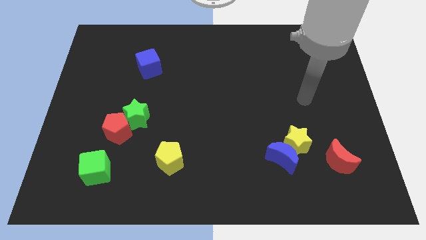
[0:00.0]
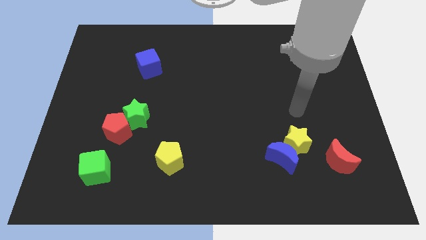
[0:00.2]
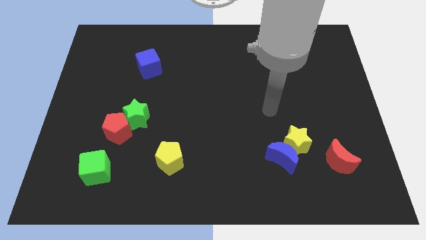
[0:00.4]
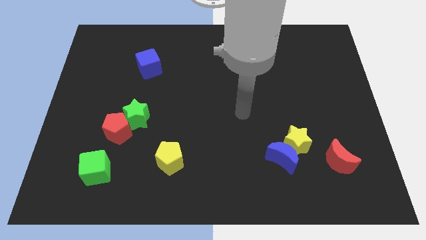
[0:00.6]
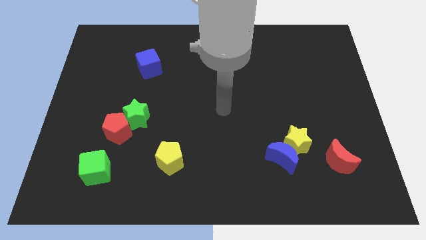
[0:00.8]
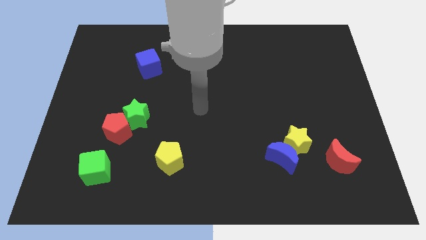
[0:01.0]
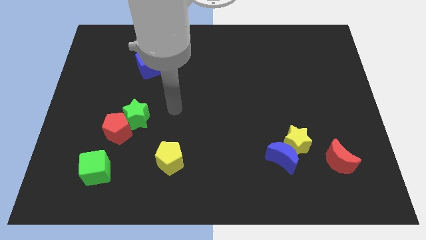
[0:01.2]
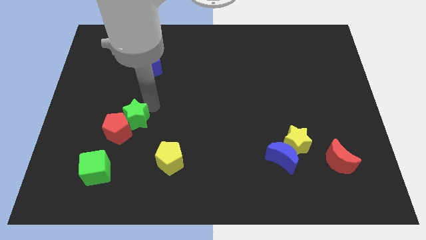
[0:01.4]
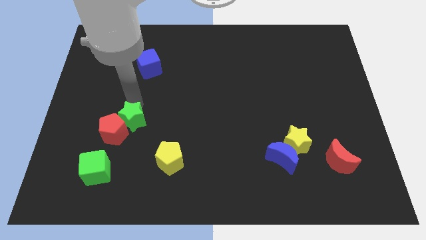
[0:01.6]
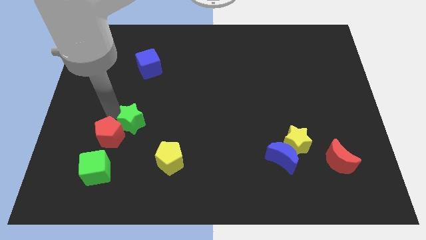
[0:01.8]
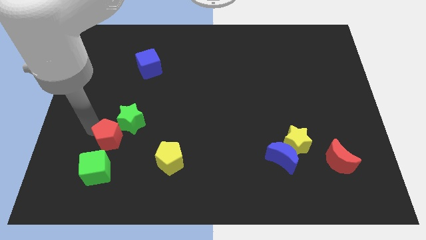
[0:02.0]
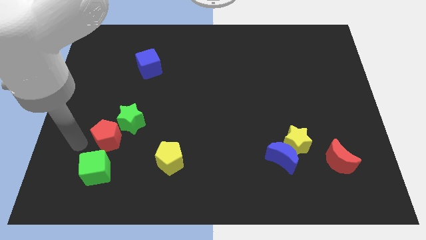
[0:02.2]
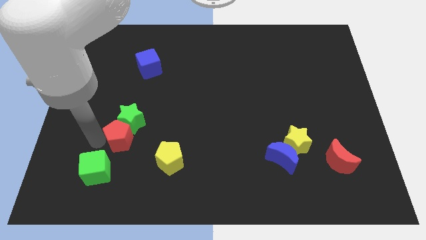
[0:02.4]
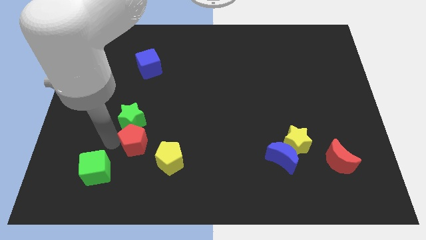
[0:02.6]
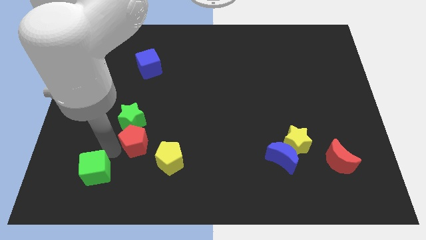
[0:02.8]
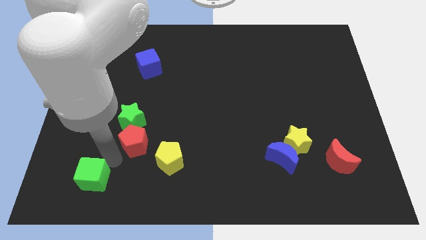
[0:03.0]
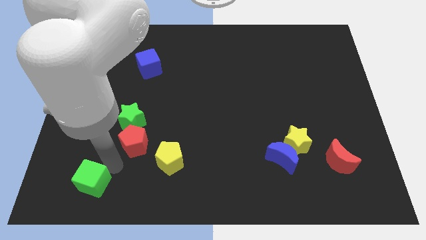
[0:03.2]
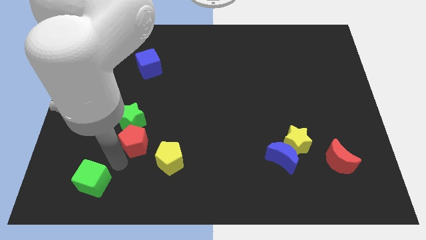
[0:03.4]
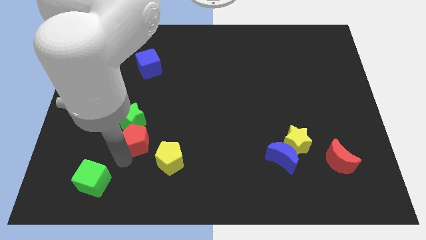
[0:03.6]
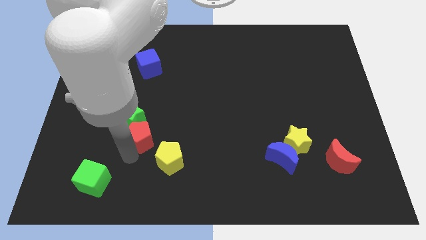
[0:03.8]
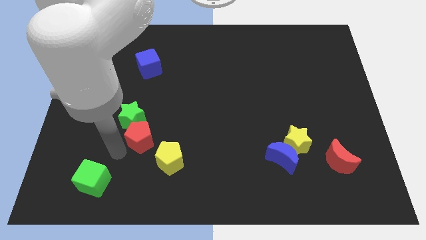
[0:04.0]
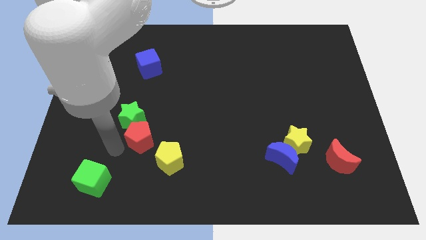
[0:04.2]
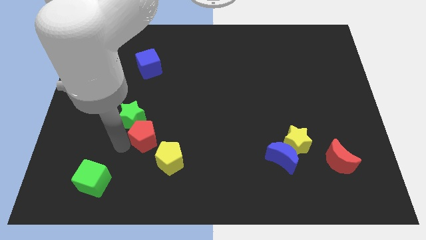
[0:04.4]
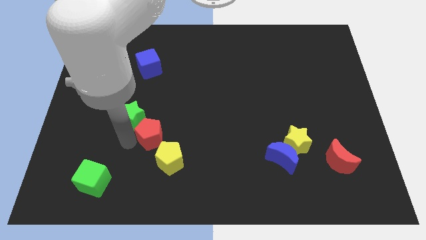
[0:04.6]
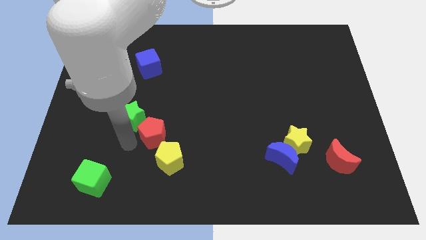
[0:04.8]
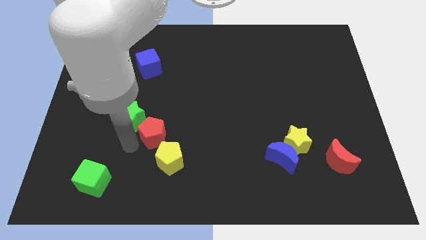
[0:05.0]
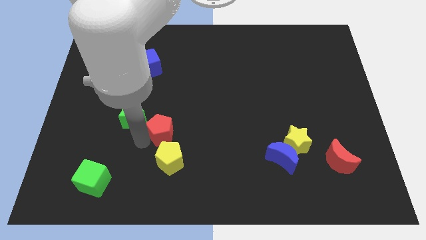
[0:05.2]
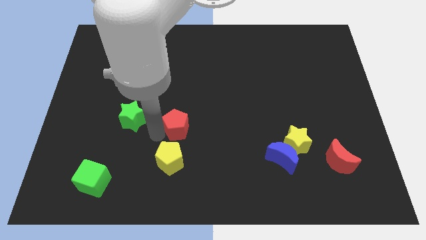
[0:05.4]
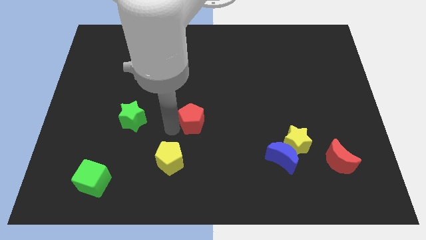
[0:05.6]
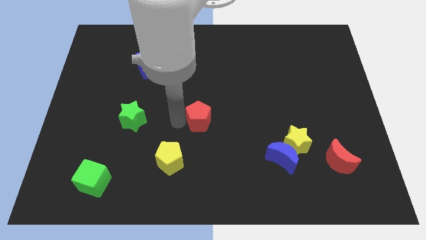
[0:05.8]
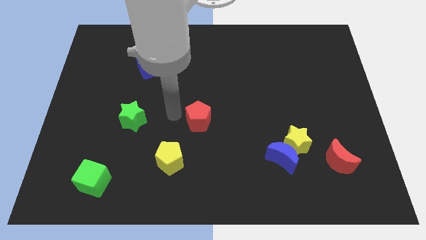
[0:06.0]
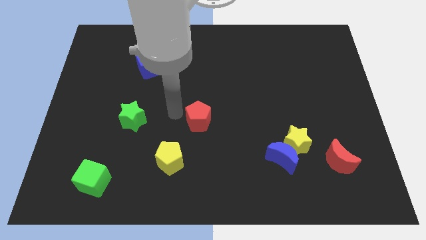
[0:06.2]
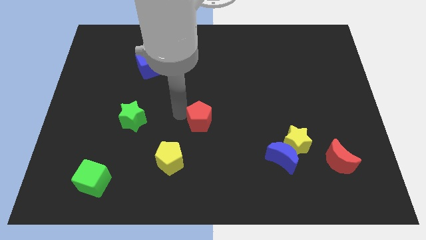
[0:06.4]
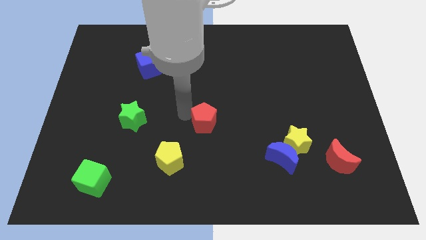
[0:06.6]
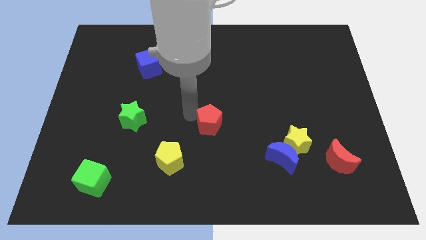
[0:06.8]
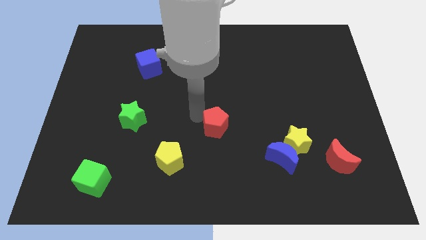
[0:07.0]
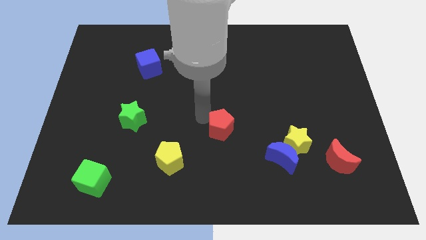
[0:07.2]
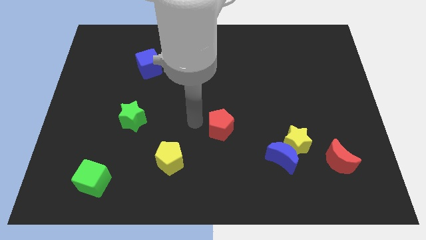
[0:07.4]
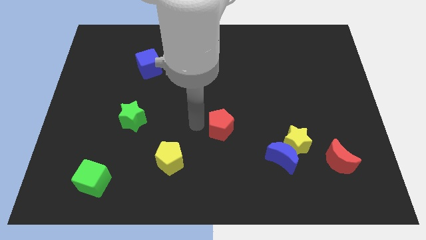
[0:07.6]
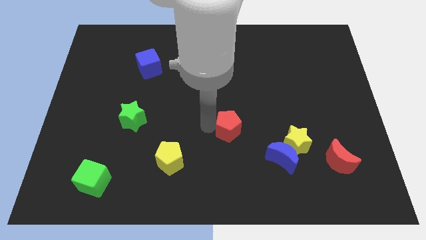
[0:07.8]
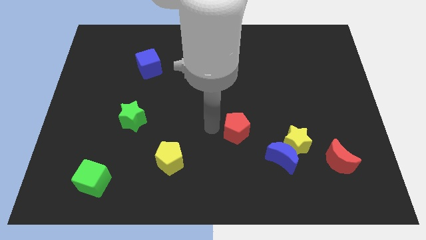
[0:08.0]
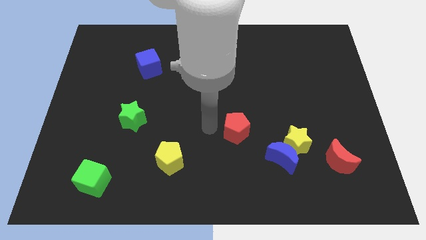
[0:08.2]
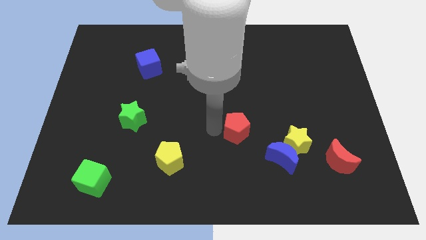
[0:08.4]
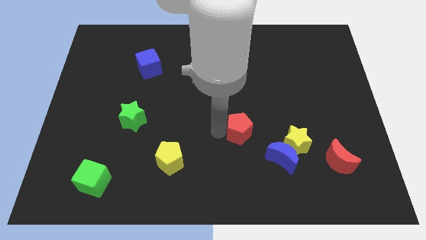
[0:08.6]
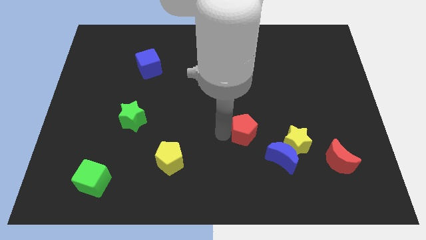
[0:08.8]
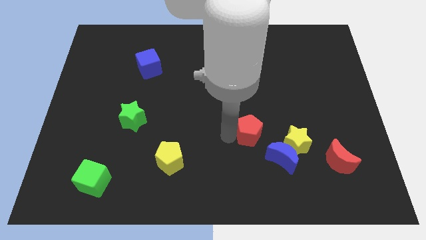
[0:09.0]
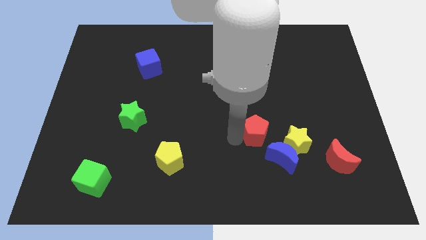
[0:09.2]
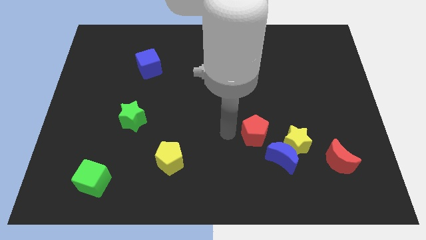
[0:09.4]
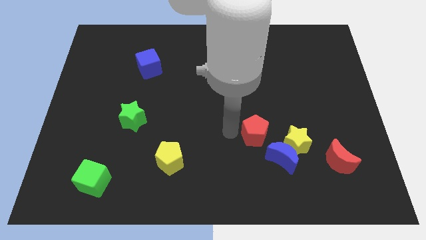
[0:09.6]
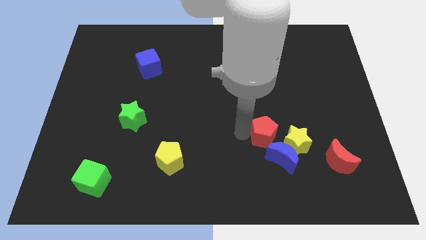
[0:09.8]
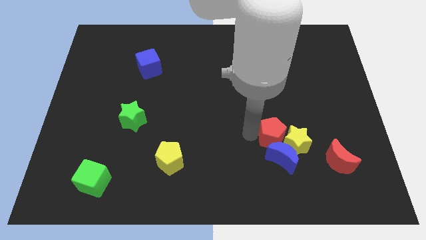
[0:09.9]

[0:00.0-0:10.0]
push the red pentagon towards the yellow star

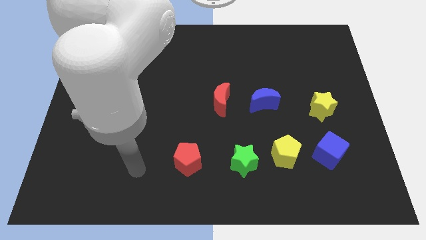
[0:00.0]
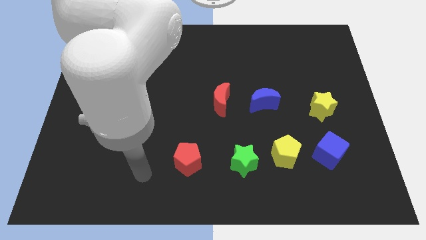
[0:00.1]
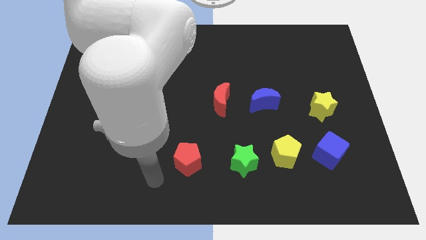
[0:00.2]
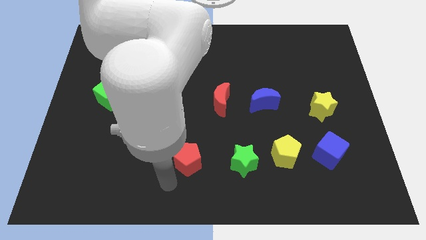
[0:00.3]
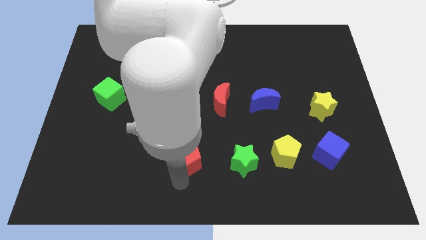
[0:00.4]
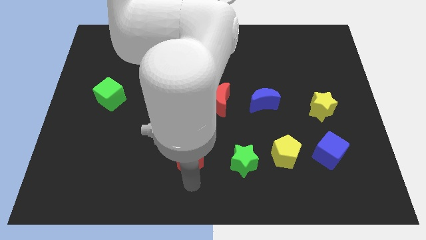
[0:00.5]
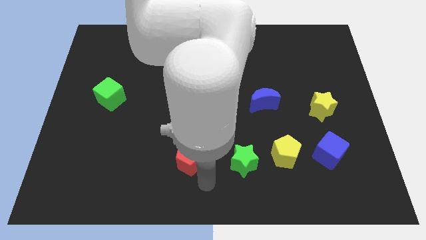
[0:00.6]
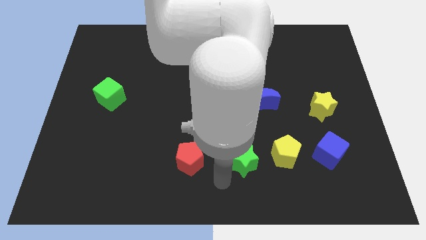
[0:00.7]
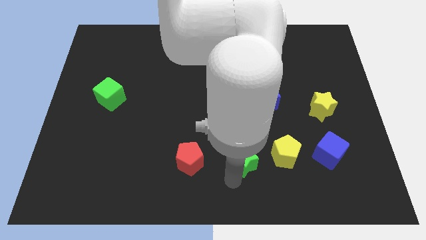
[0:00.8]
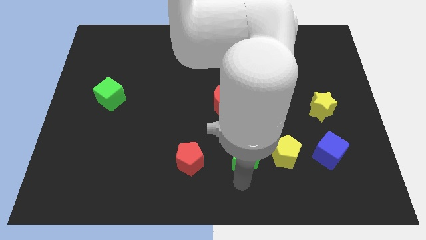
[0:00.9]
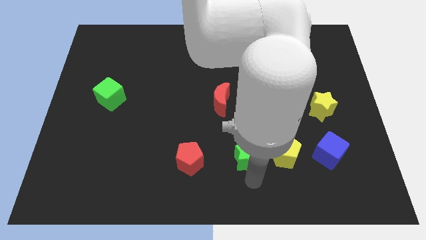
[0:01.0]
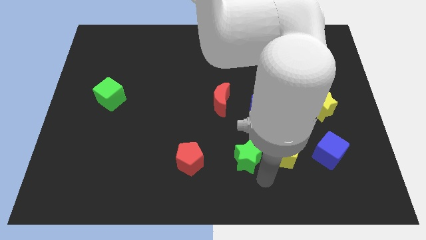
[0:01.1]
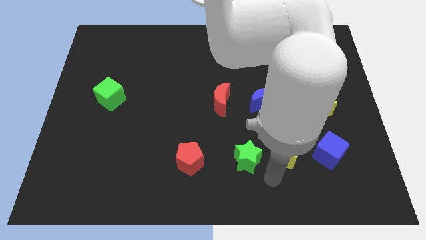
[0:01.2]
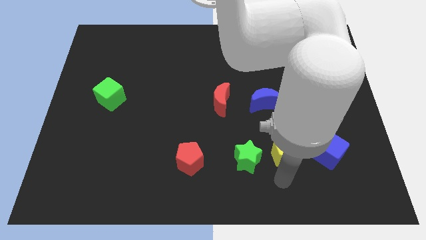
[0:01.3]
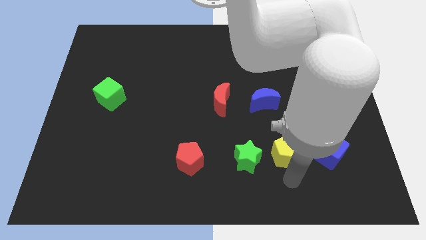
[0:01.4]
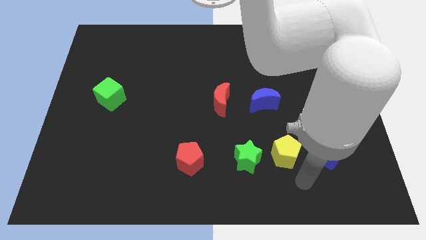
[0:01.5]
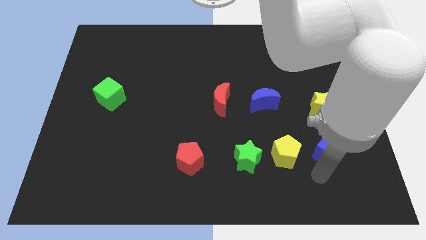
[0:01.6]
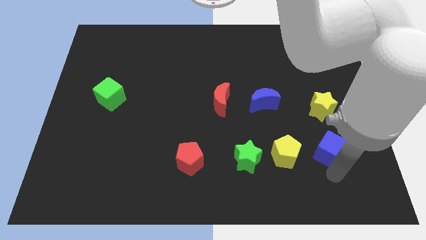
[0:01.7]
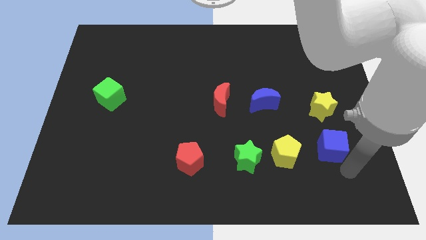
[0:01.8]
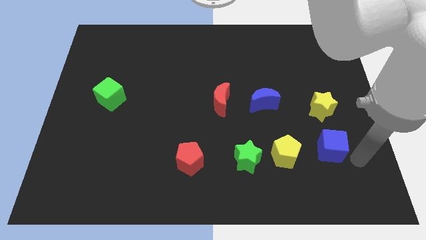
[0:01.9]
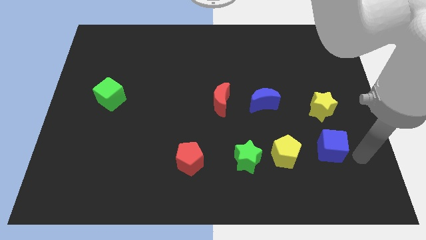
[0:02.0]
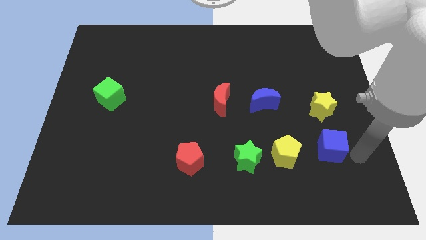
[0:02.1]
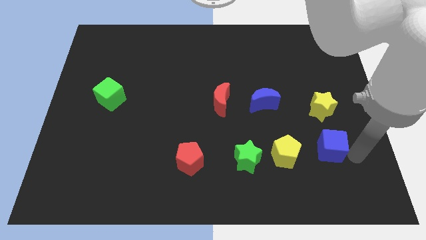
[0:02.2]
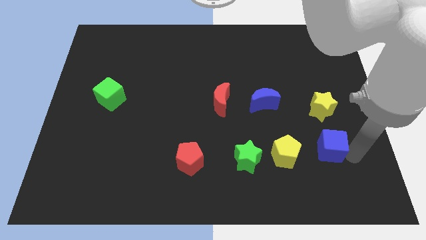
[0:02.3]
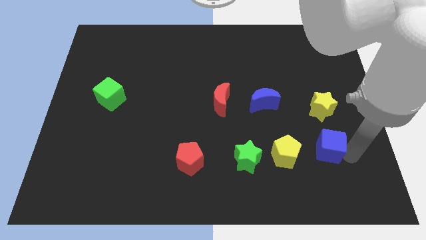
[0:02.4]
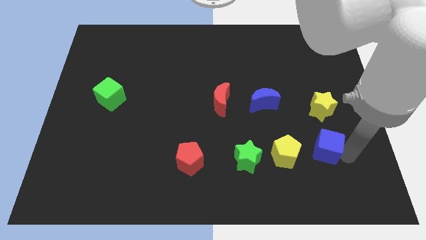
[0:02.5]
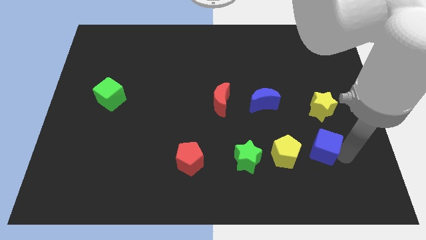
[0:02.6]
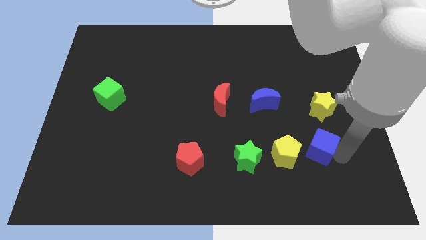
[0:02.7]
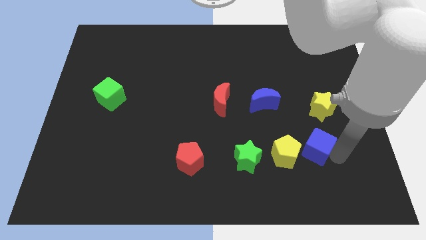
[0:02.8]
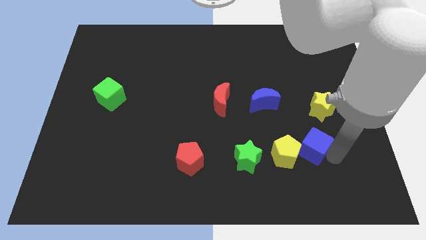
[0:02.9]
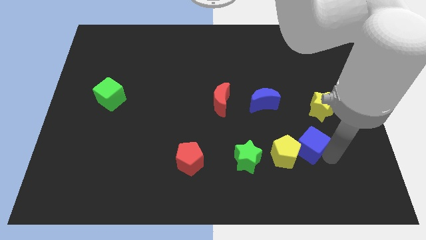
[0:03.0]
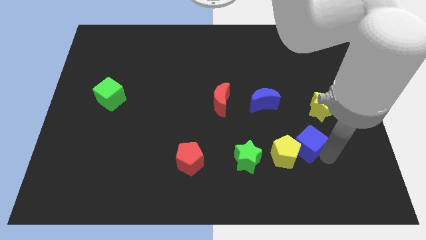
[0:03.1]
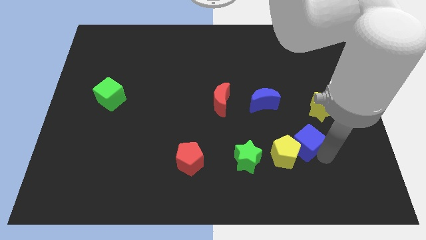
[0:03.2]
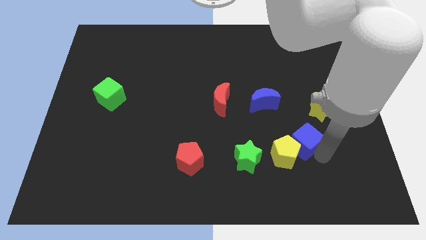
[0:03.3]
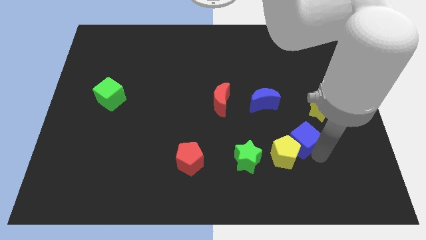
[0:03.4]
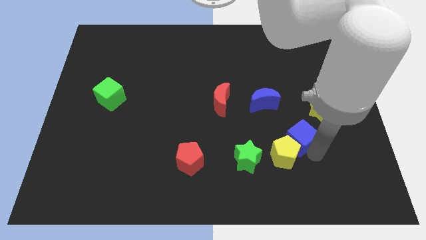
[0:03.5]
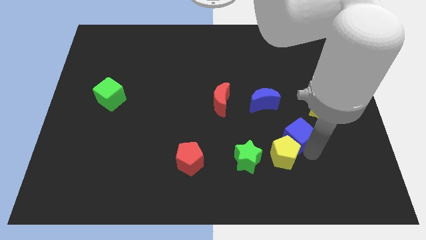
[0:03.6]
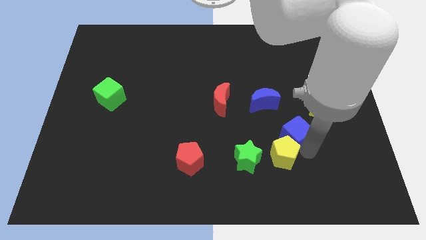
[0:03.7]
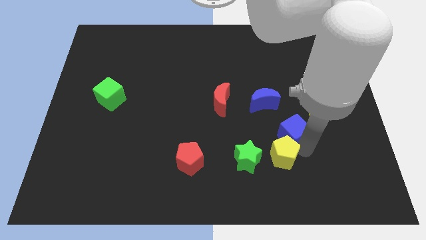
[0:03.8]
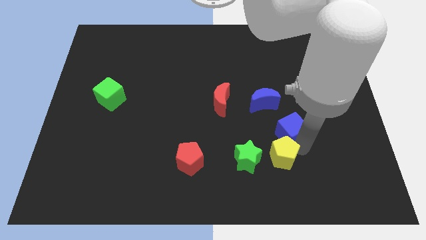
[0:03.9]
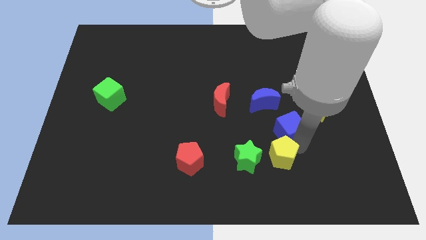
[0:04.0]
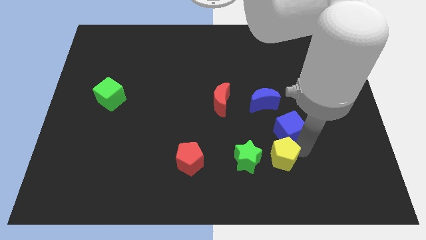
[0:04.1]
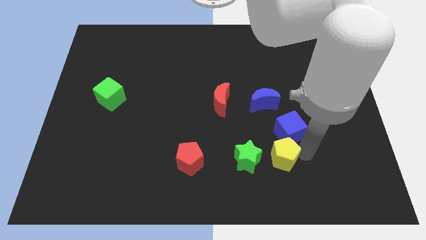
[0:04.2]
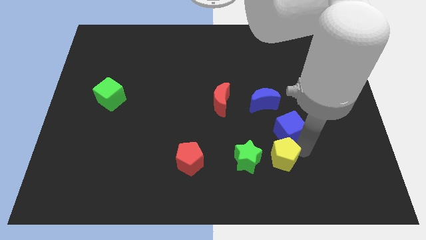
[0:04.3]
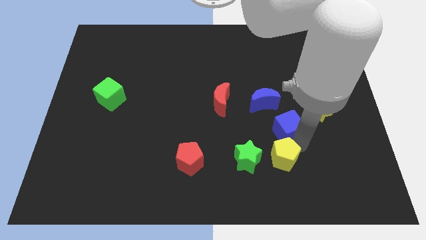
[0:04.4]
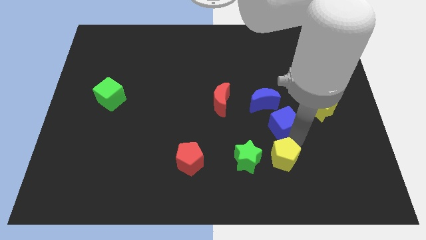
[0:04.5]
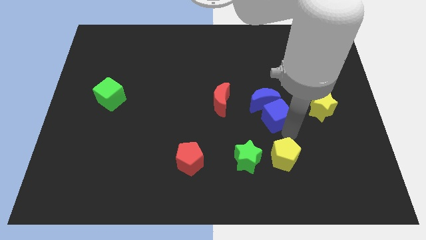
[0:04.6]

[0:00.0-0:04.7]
push the blue cube next to the blue moon
